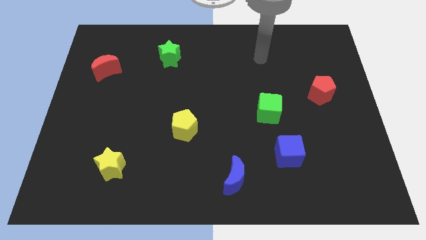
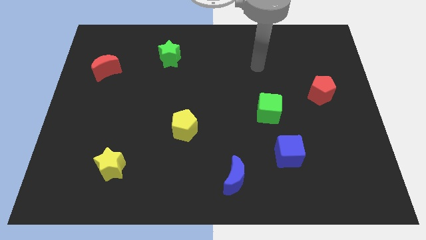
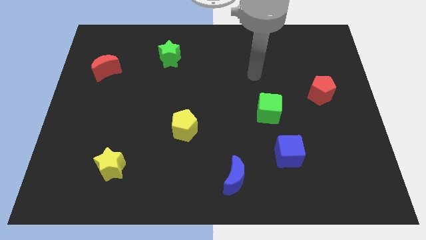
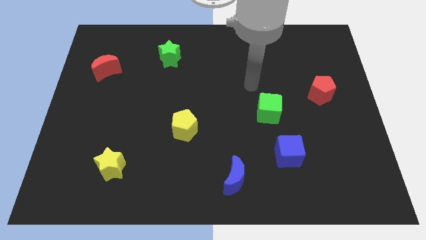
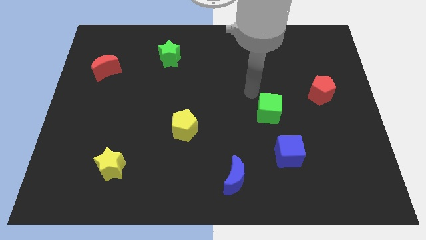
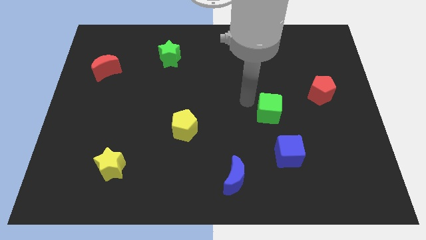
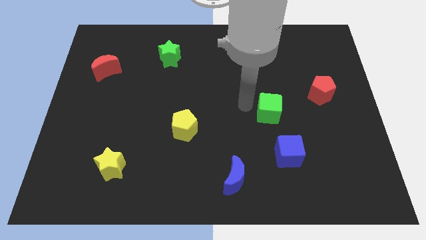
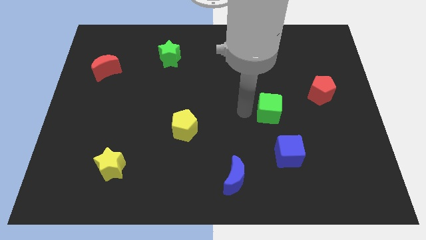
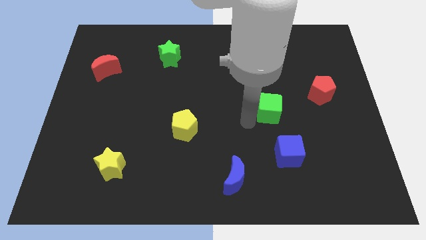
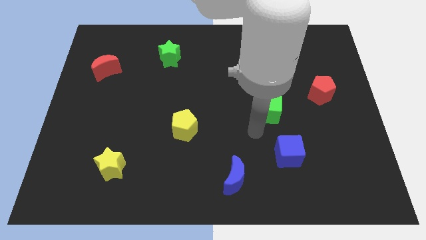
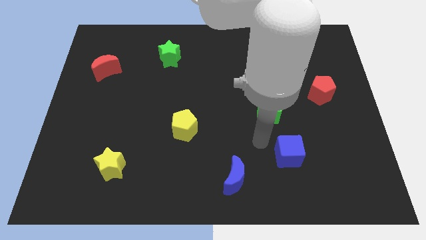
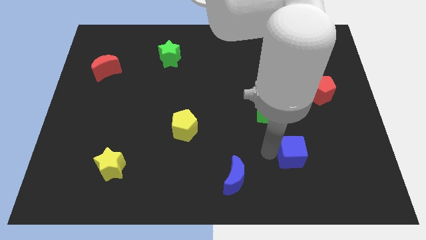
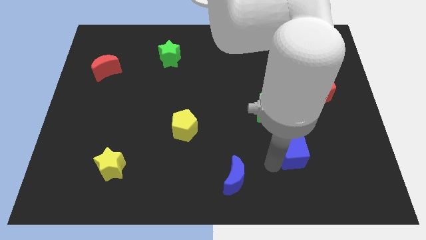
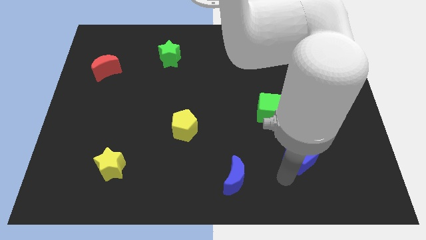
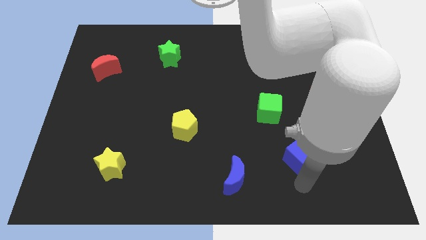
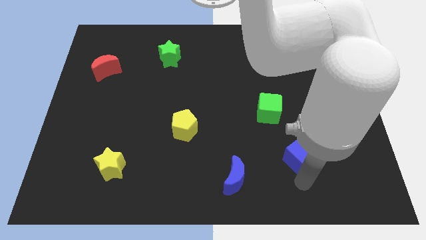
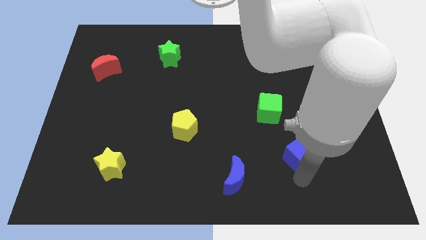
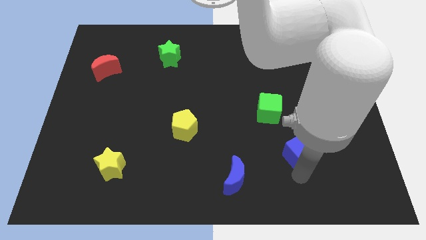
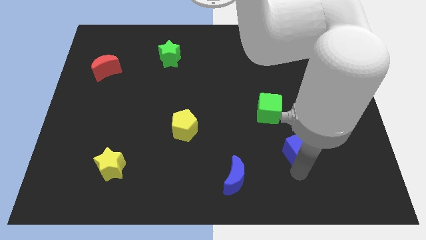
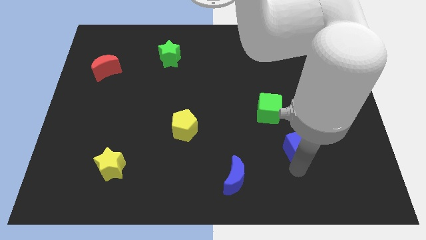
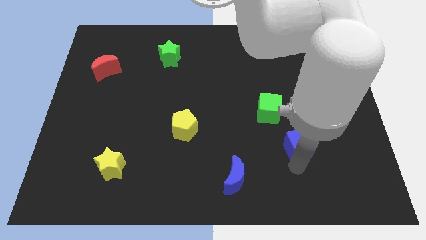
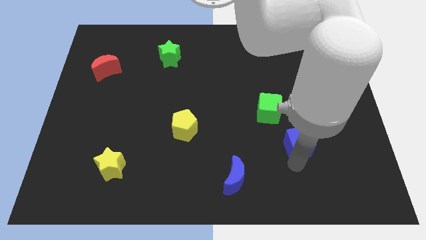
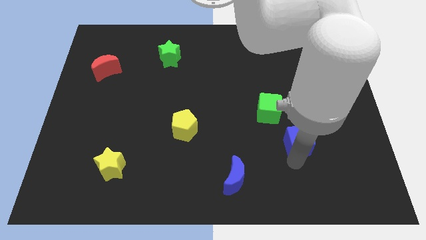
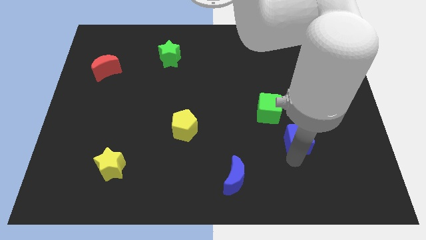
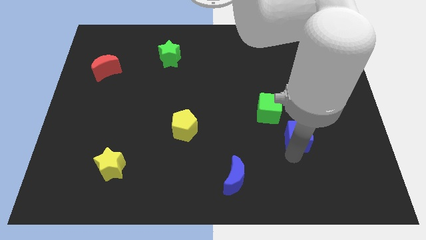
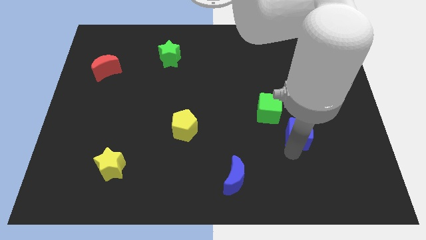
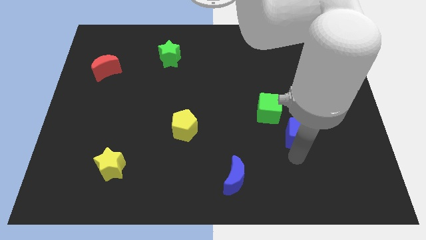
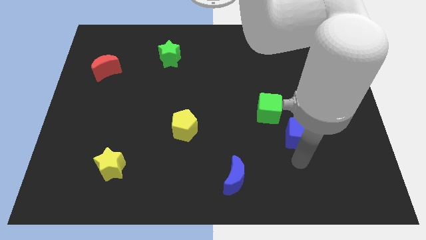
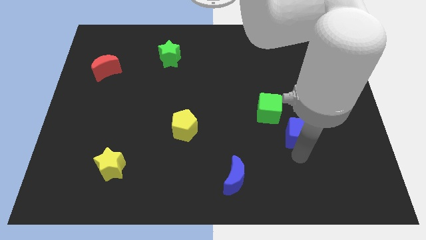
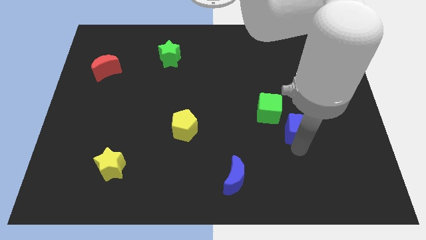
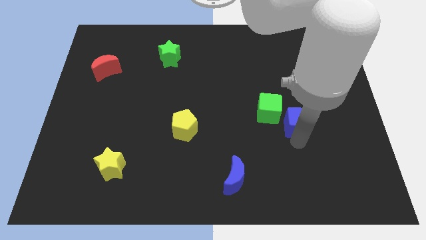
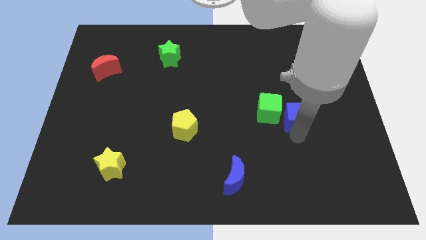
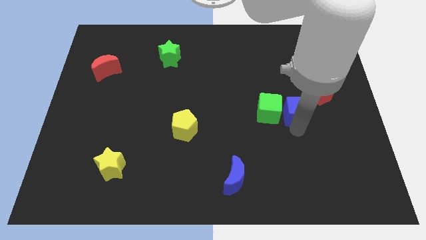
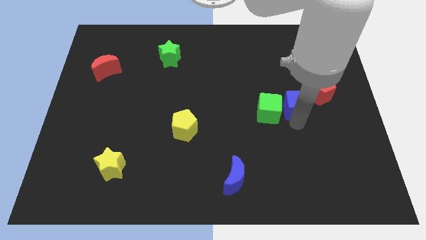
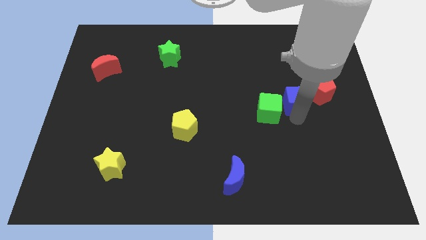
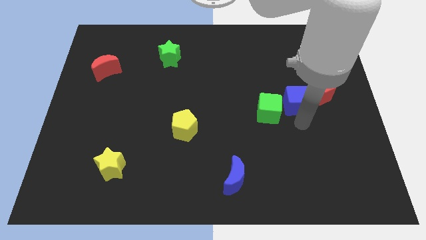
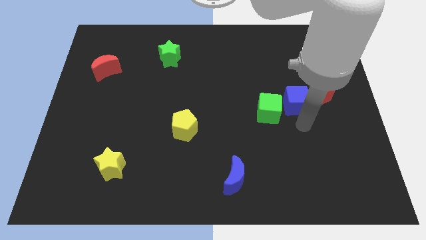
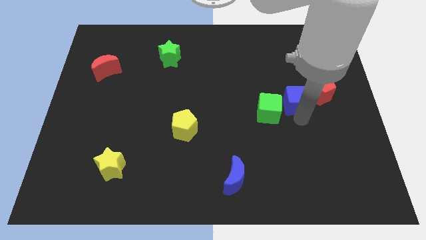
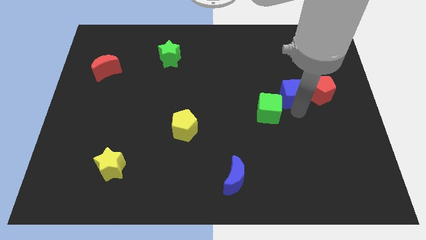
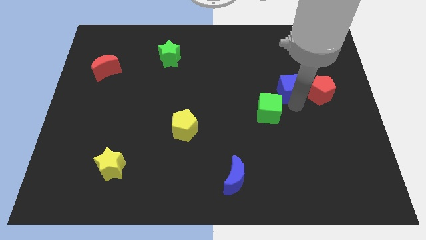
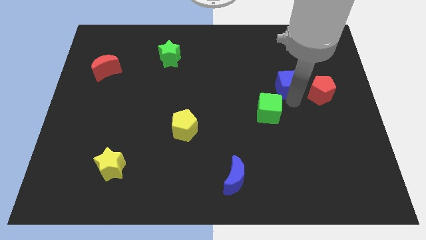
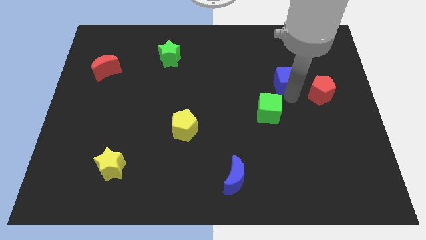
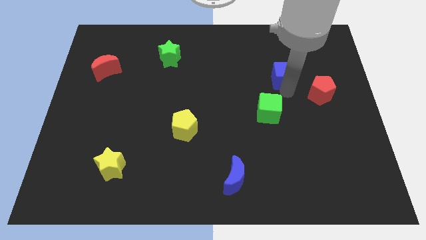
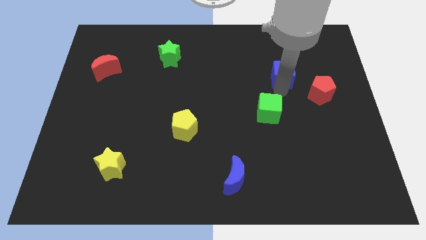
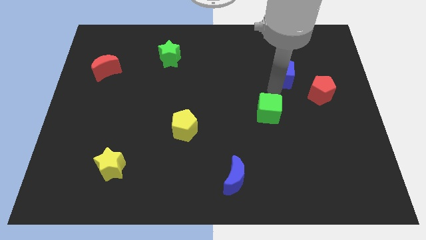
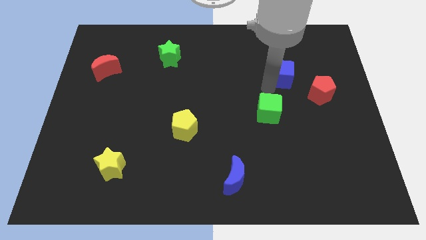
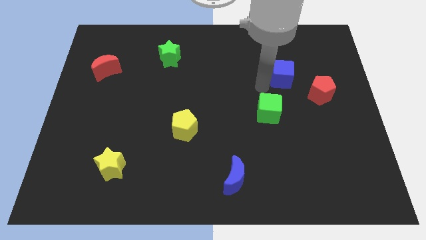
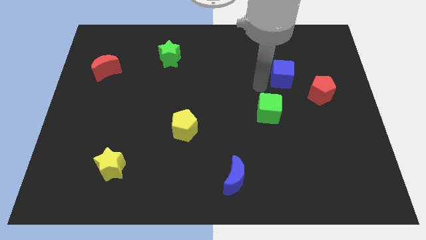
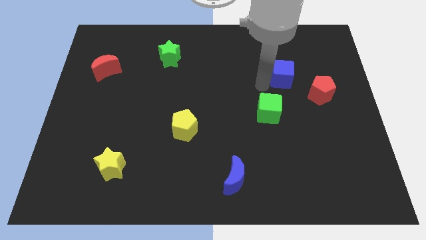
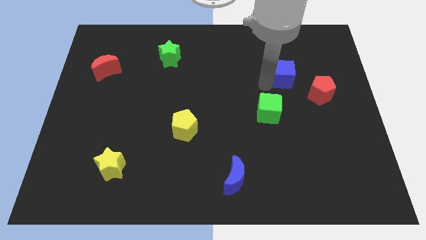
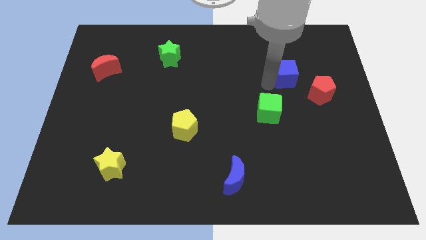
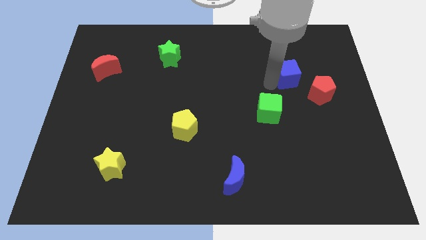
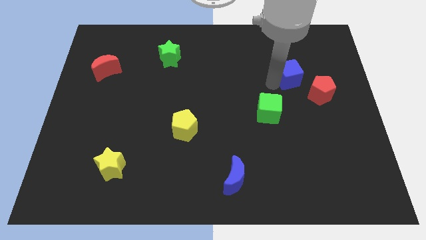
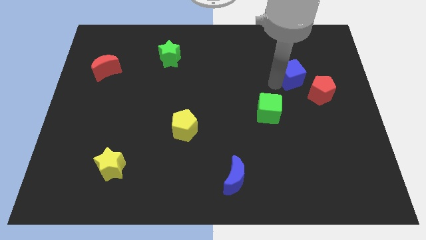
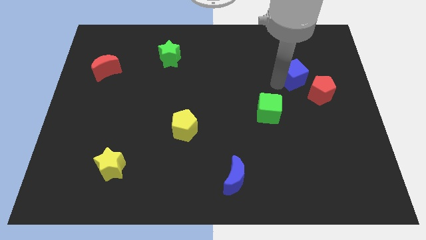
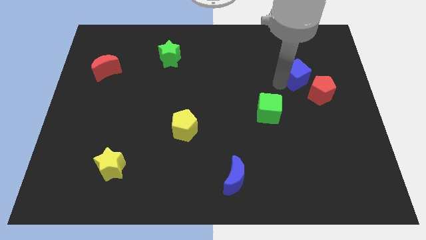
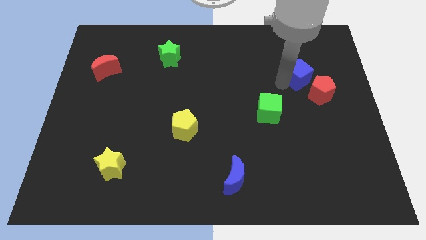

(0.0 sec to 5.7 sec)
slide the blue cube above the red pentagon

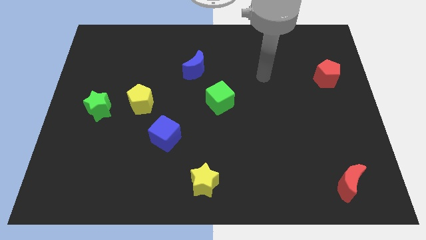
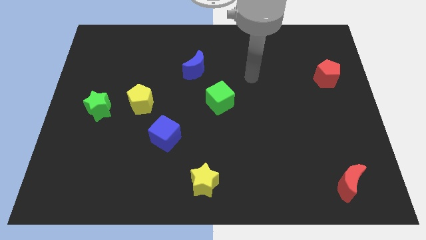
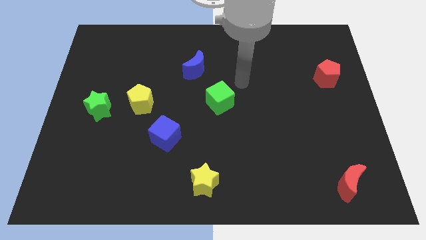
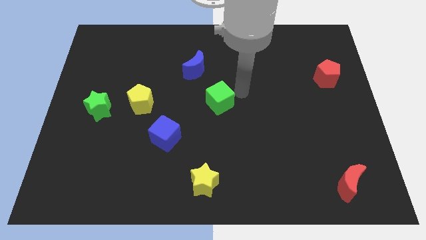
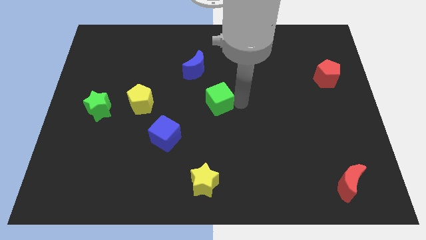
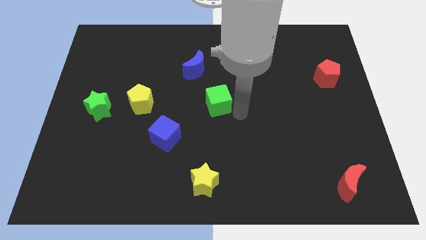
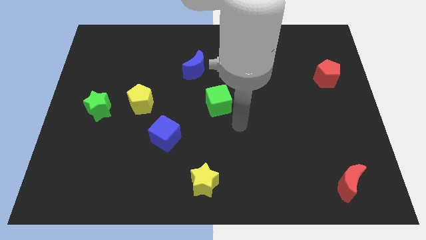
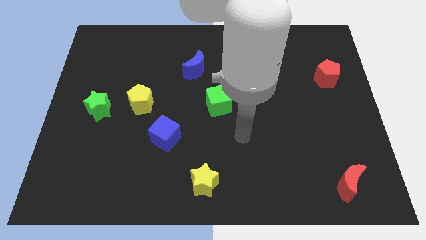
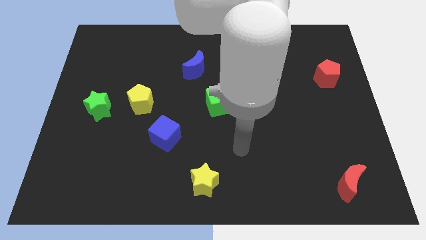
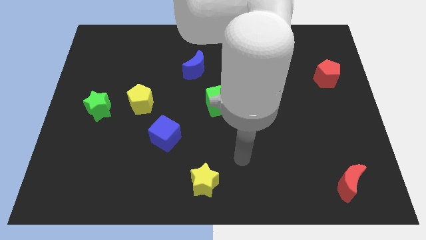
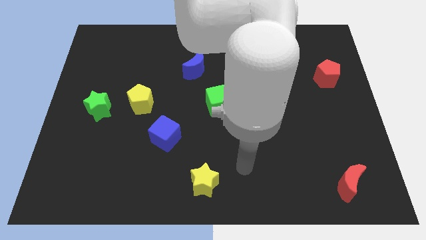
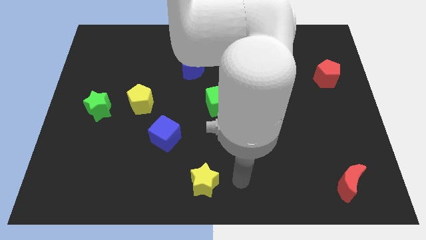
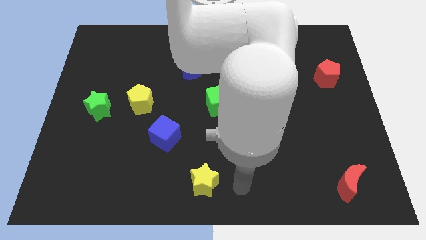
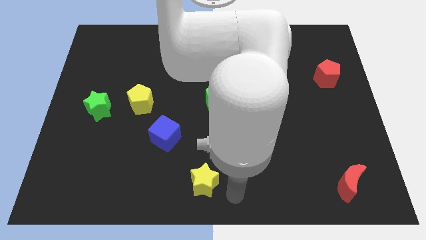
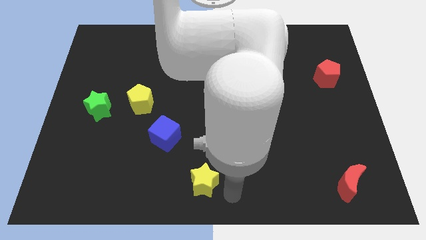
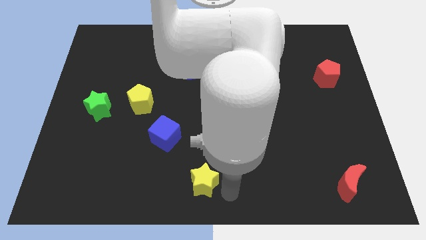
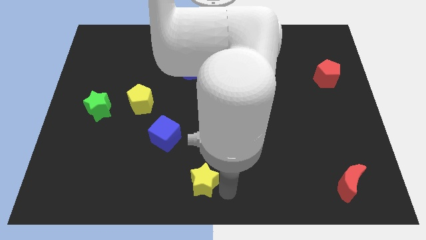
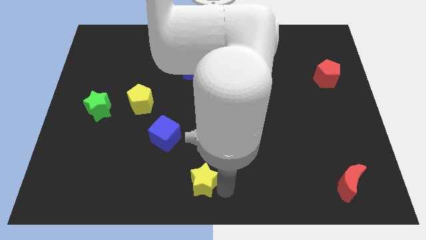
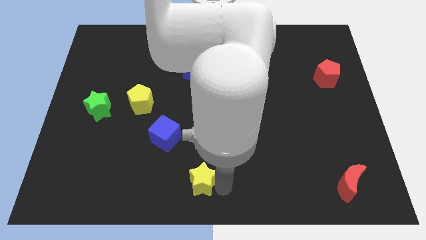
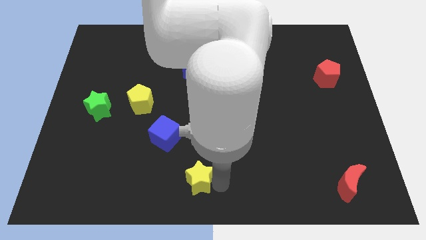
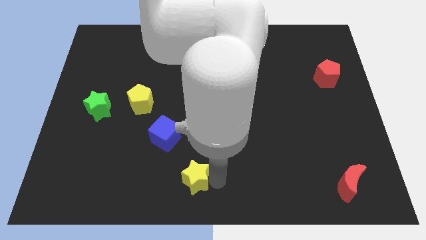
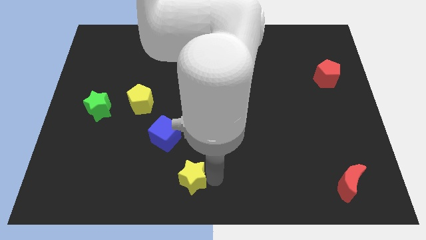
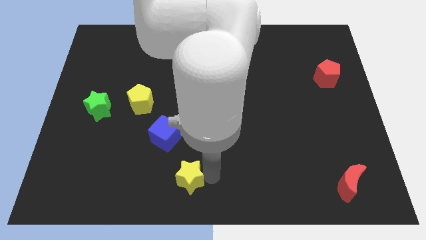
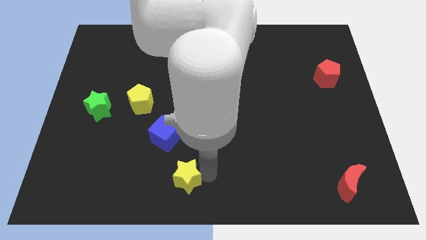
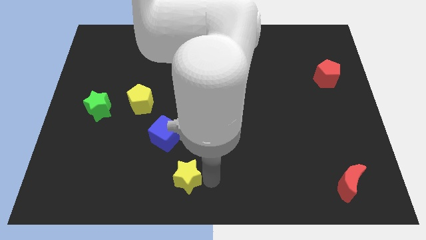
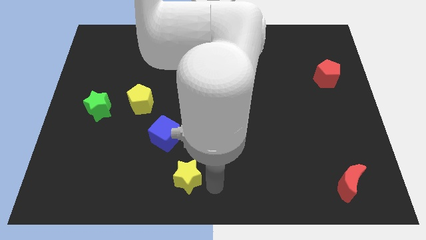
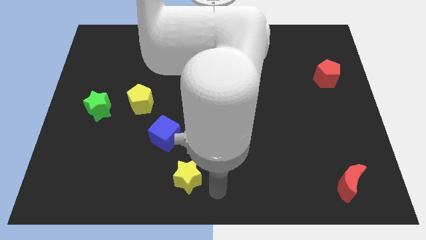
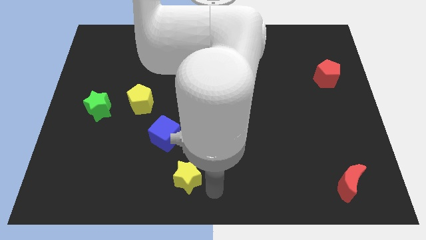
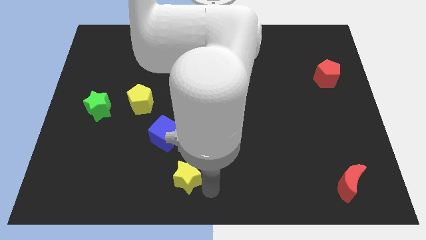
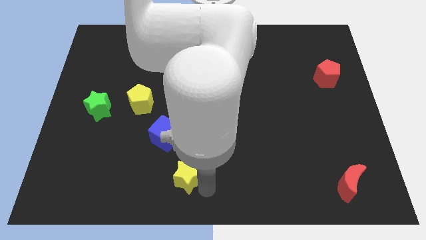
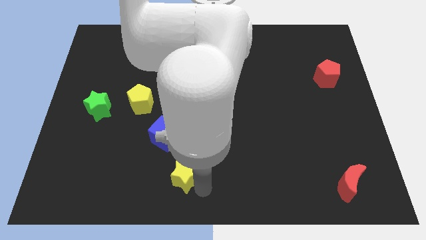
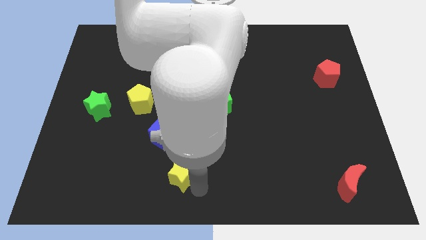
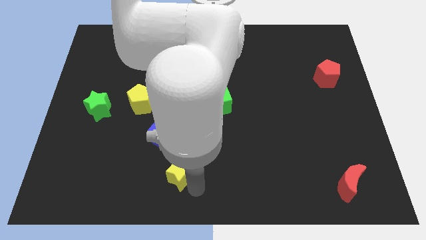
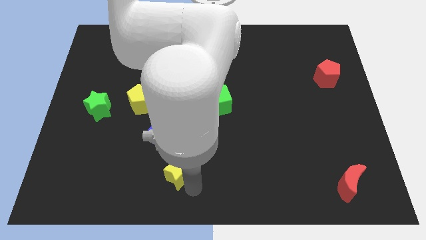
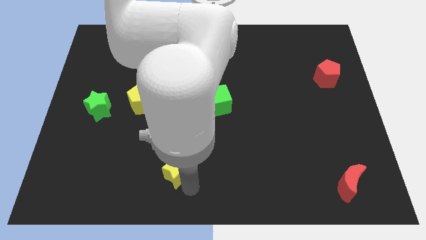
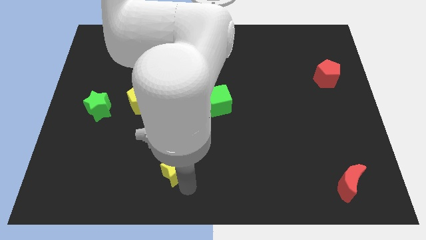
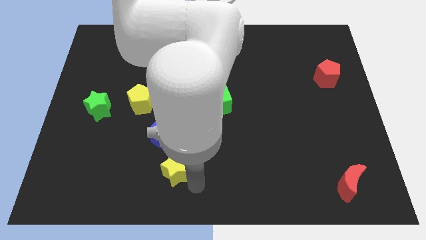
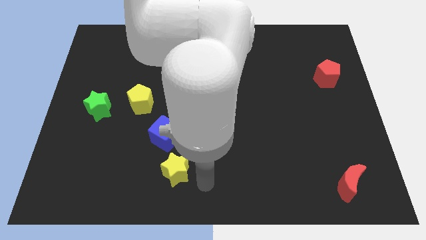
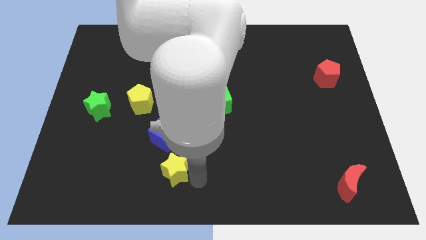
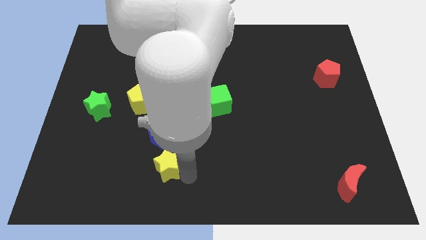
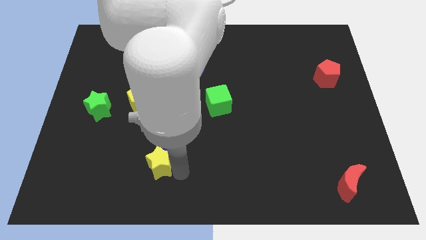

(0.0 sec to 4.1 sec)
move the yellow star diagonally down and to the left of the blue cube
